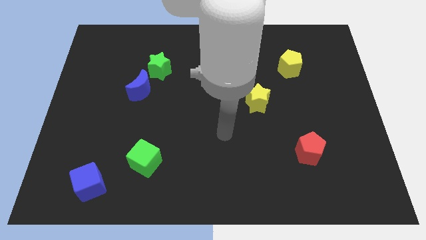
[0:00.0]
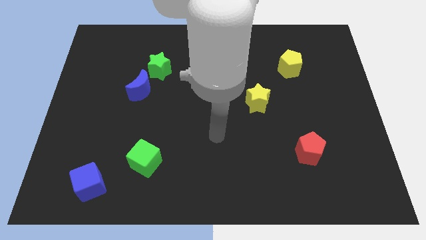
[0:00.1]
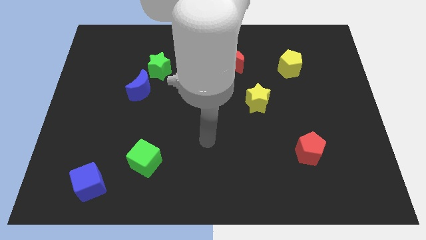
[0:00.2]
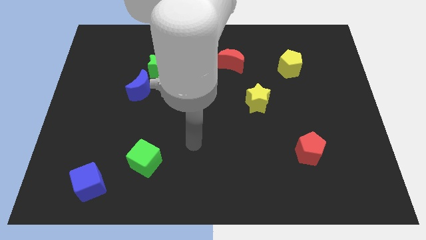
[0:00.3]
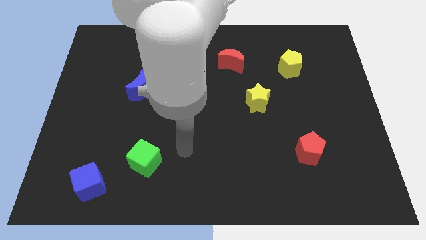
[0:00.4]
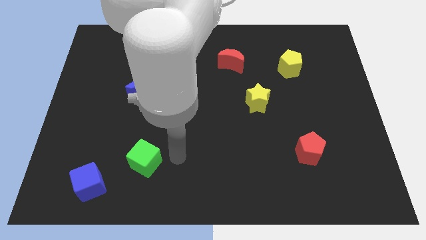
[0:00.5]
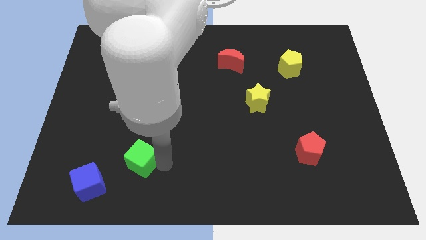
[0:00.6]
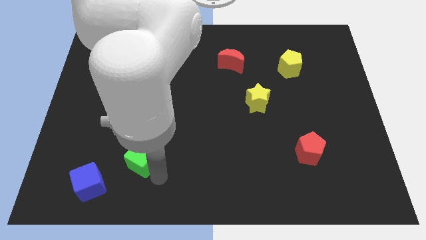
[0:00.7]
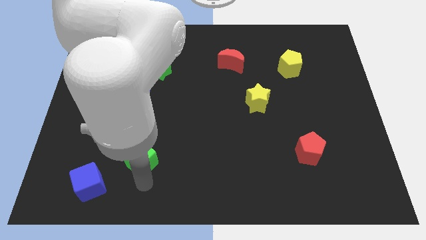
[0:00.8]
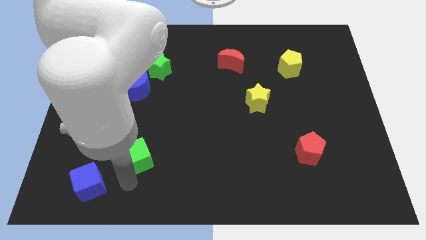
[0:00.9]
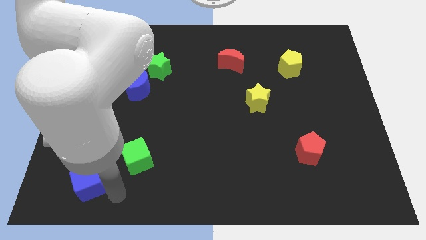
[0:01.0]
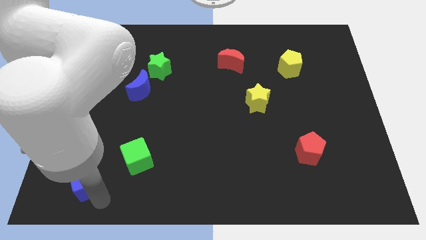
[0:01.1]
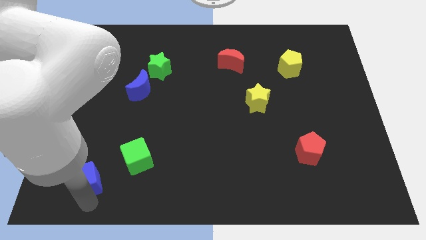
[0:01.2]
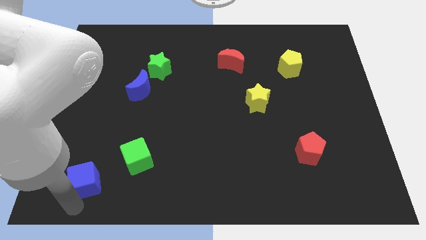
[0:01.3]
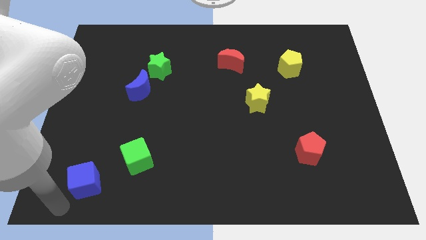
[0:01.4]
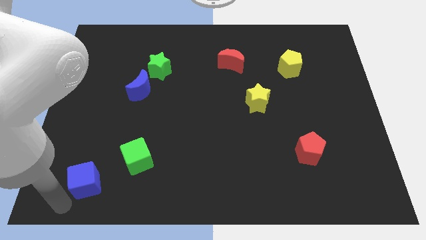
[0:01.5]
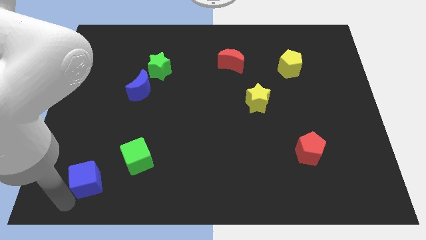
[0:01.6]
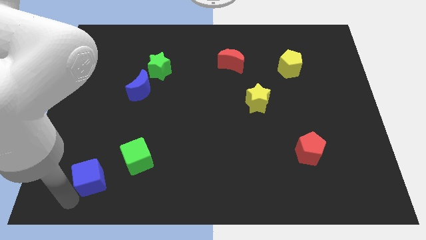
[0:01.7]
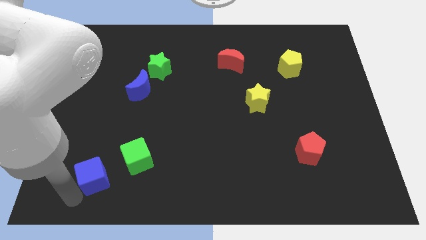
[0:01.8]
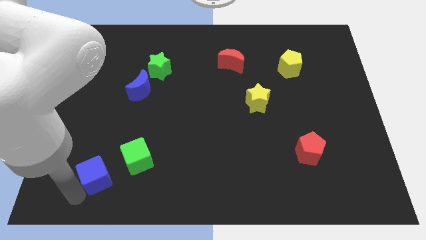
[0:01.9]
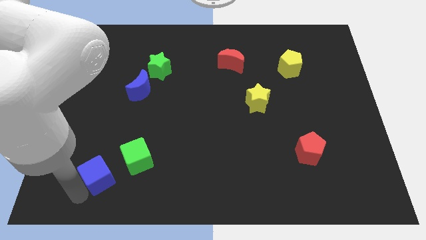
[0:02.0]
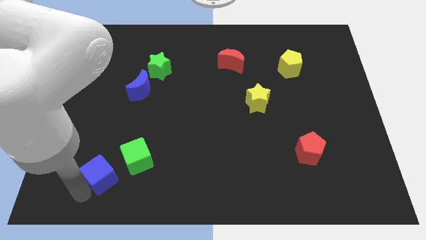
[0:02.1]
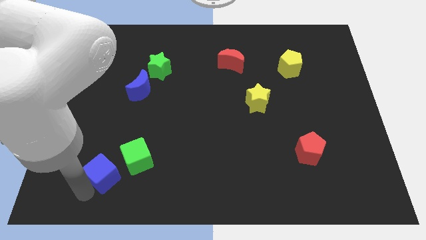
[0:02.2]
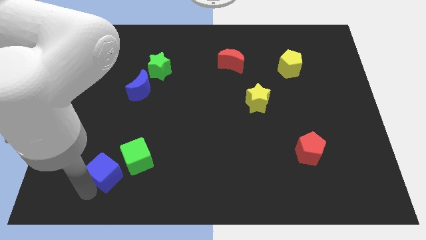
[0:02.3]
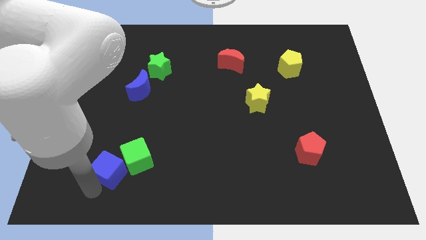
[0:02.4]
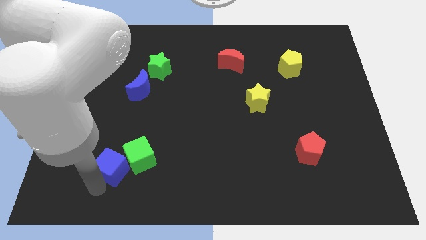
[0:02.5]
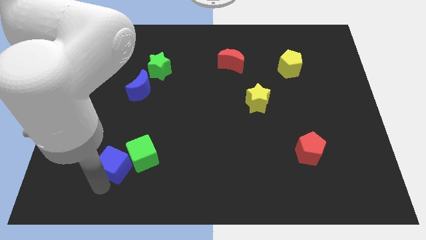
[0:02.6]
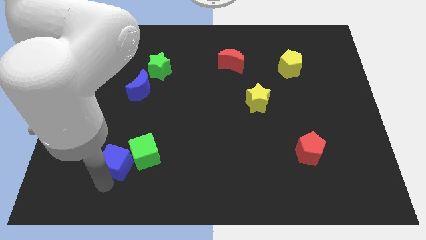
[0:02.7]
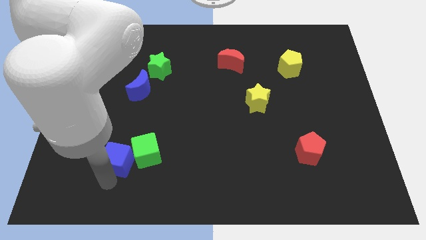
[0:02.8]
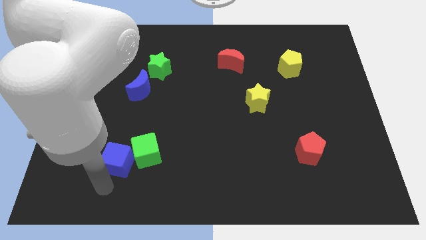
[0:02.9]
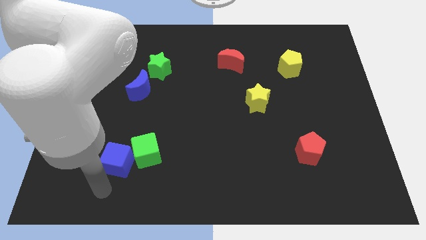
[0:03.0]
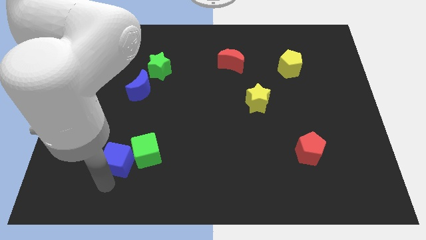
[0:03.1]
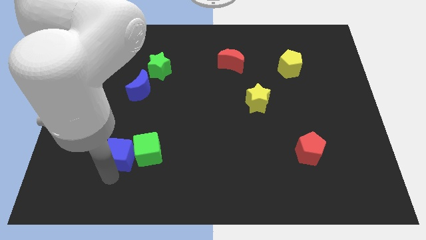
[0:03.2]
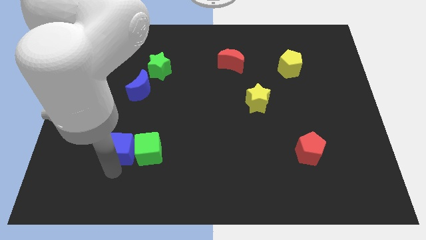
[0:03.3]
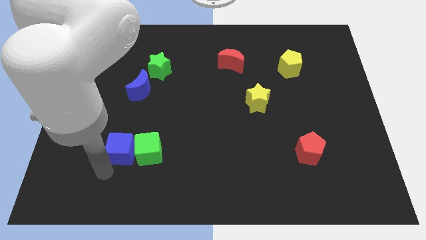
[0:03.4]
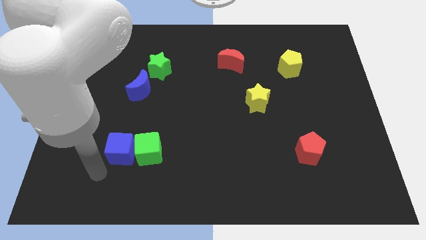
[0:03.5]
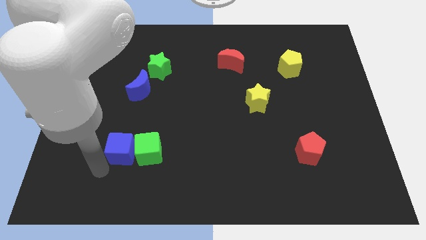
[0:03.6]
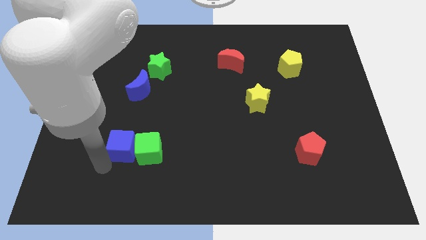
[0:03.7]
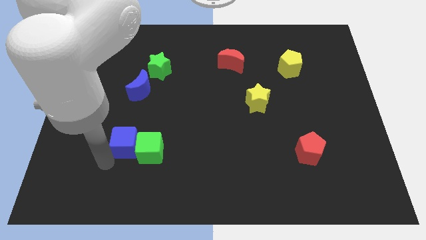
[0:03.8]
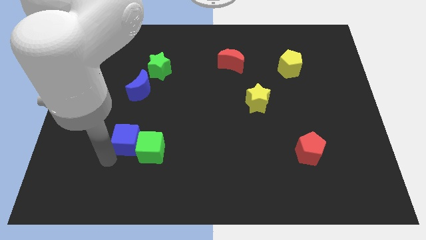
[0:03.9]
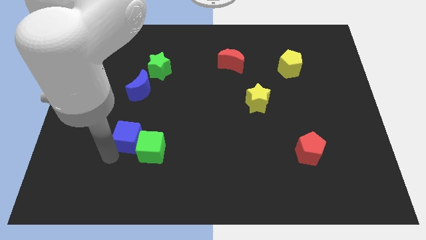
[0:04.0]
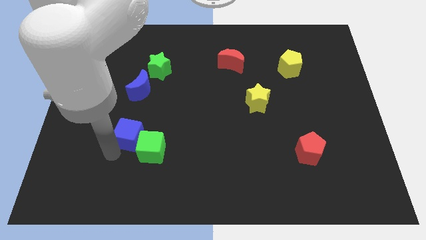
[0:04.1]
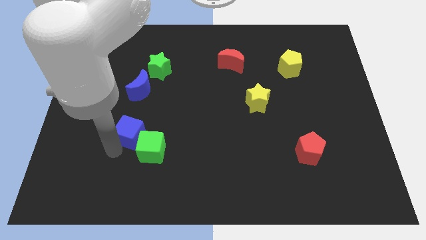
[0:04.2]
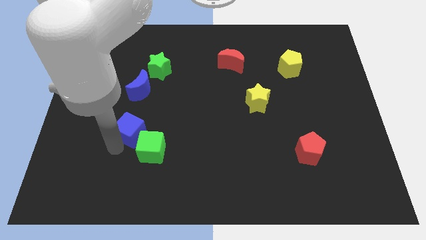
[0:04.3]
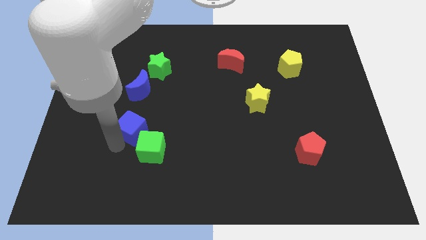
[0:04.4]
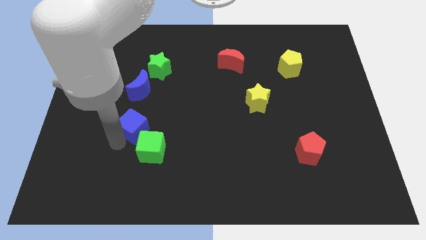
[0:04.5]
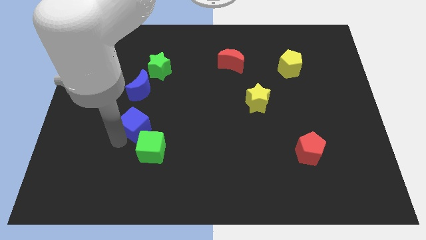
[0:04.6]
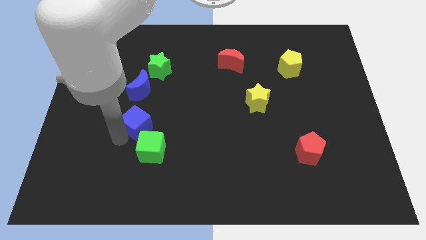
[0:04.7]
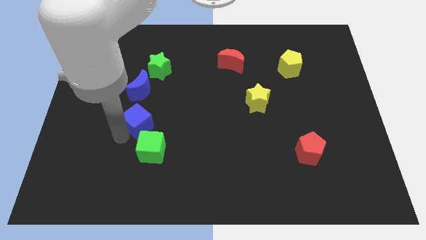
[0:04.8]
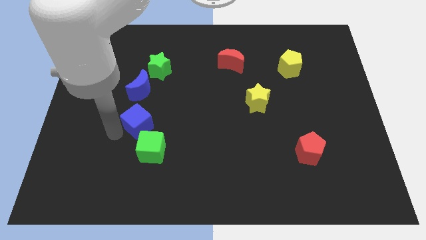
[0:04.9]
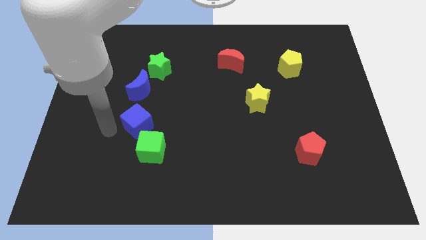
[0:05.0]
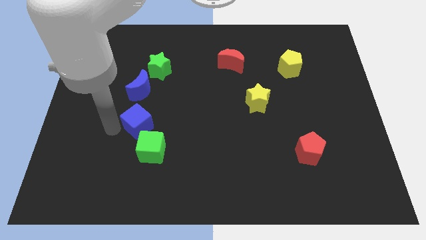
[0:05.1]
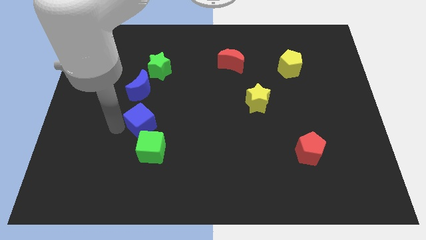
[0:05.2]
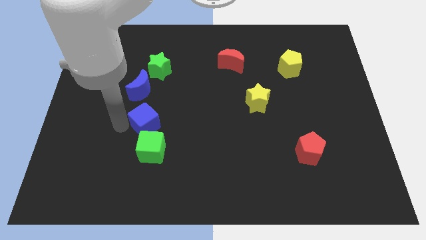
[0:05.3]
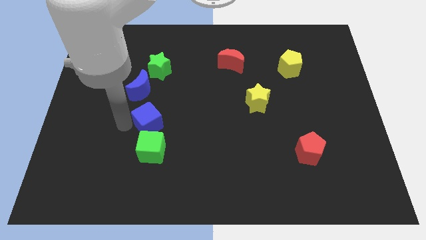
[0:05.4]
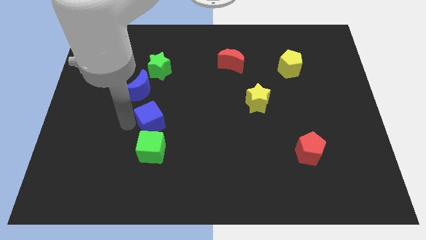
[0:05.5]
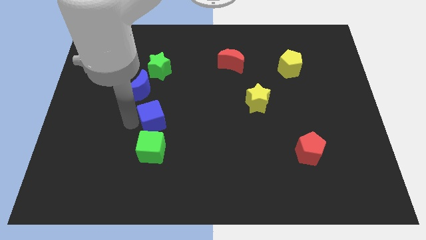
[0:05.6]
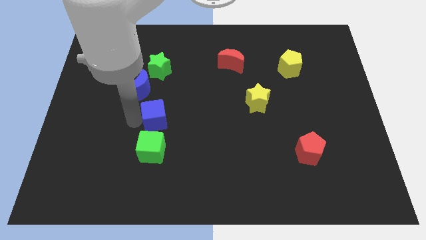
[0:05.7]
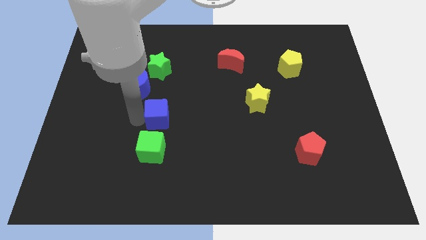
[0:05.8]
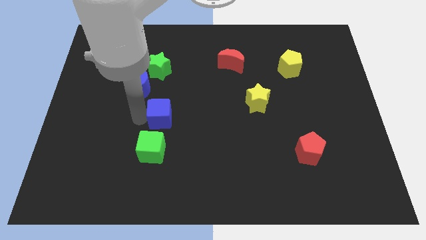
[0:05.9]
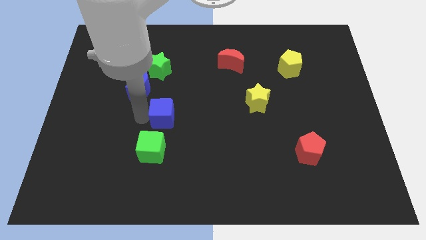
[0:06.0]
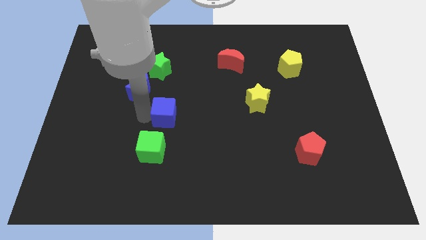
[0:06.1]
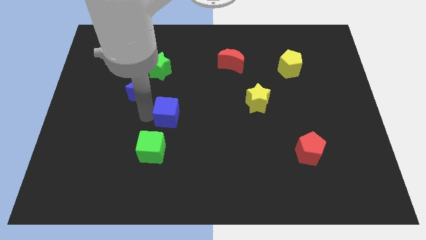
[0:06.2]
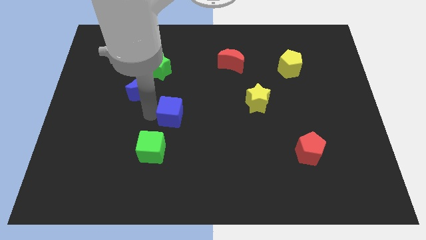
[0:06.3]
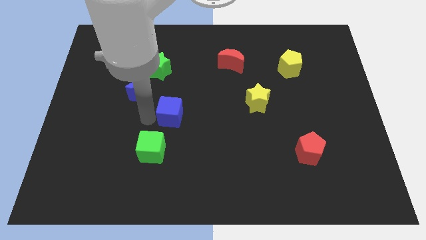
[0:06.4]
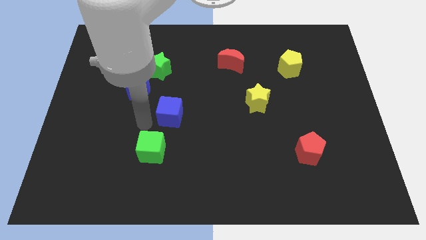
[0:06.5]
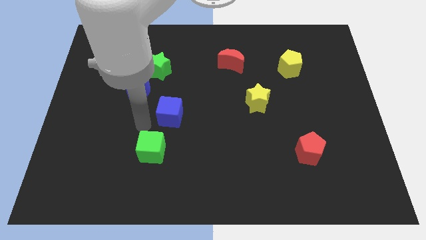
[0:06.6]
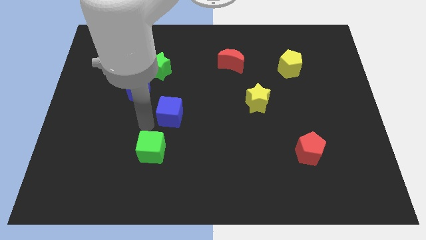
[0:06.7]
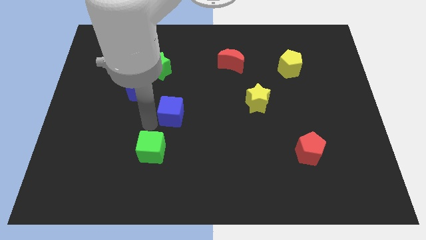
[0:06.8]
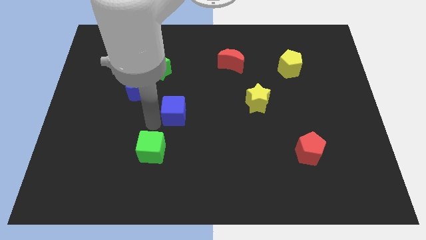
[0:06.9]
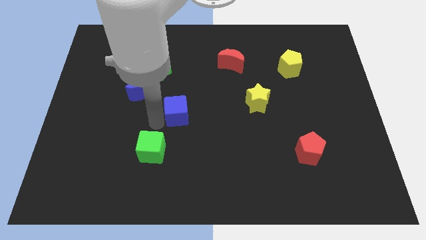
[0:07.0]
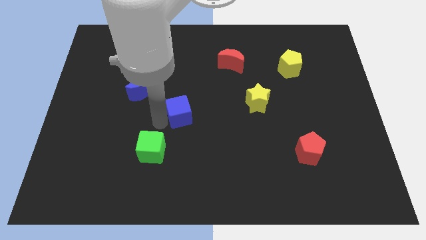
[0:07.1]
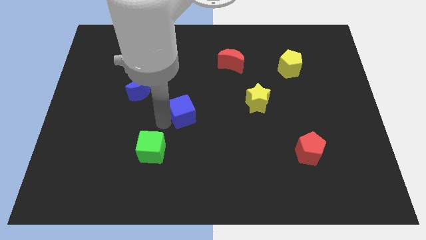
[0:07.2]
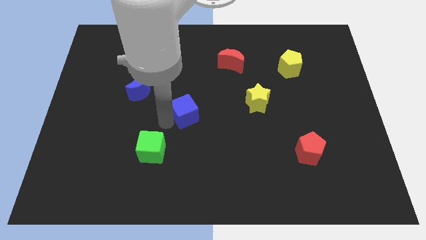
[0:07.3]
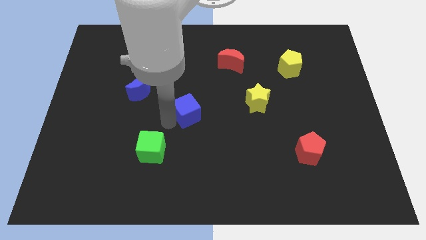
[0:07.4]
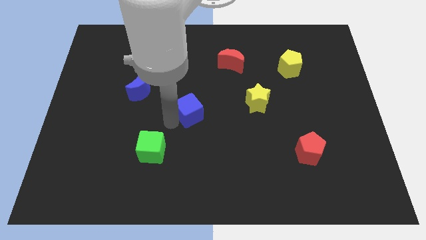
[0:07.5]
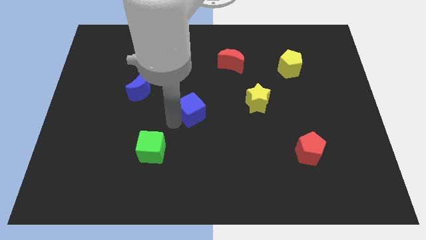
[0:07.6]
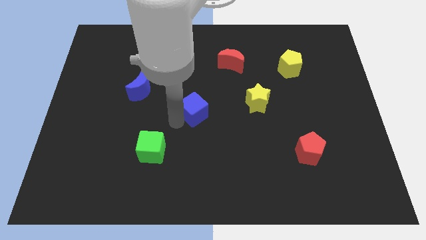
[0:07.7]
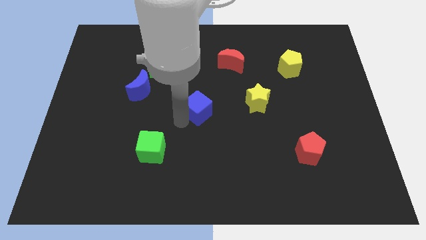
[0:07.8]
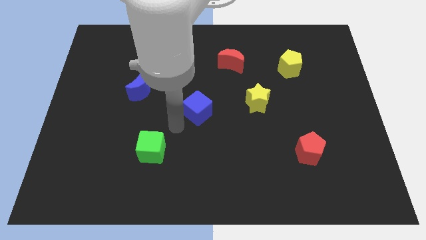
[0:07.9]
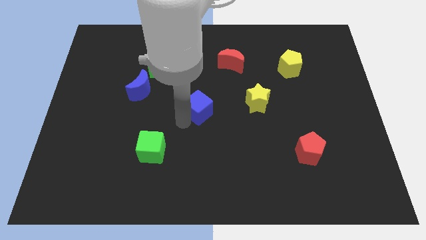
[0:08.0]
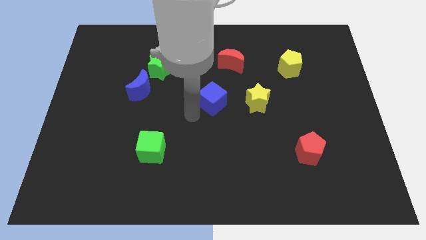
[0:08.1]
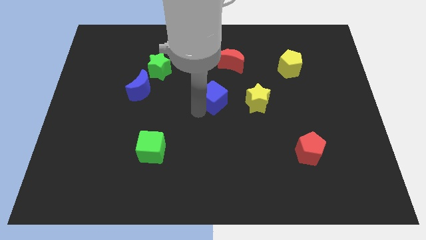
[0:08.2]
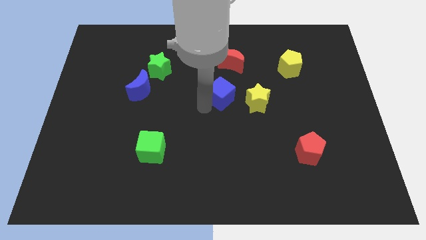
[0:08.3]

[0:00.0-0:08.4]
push the blue cube to the top left side of the yellow star
